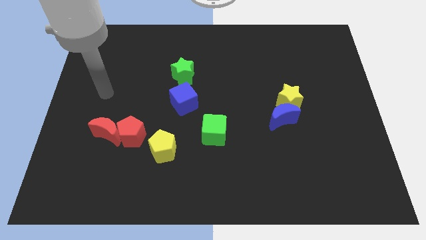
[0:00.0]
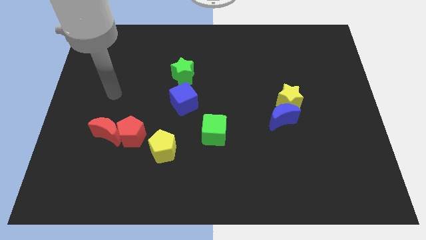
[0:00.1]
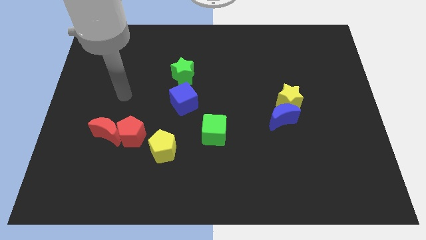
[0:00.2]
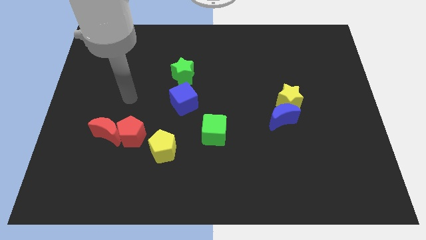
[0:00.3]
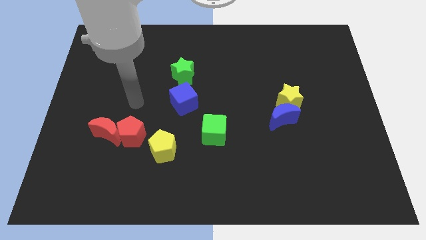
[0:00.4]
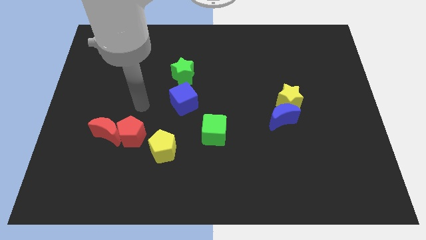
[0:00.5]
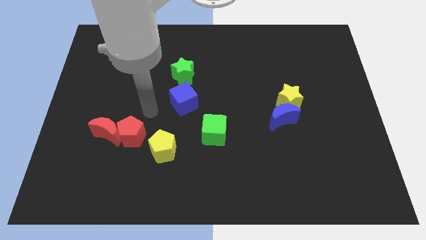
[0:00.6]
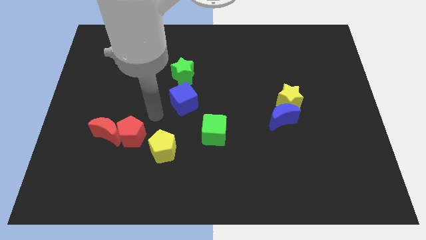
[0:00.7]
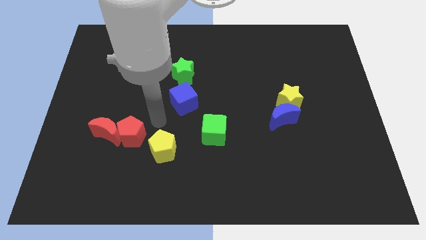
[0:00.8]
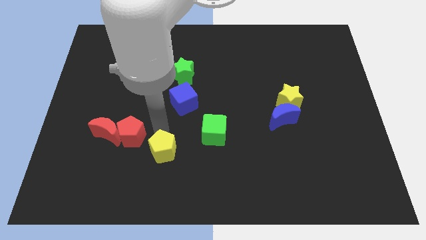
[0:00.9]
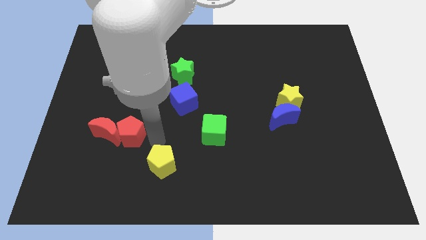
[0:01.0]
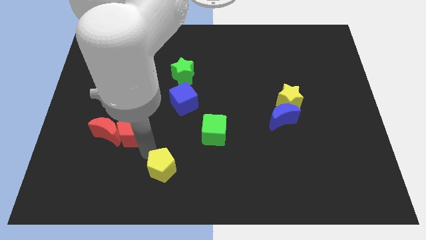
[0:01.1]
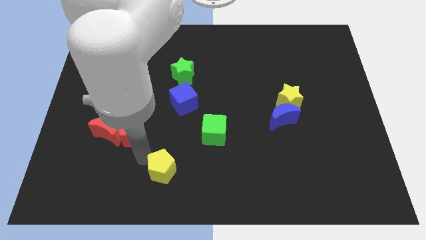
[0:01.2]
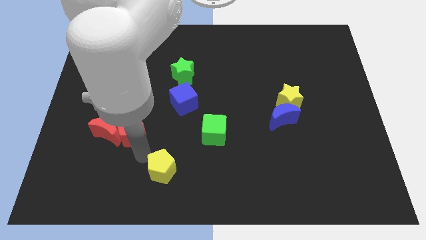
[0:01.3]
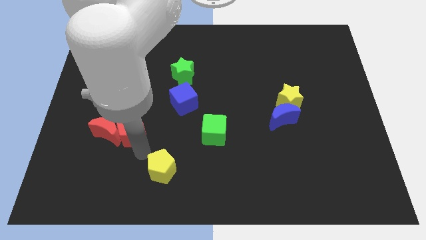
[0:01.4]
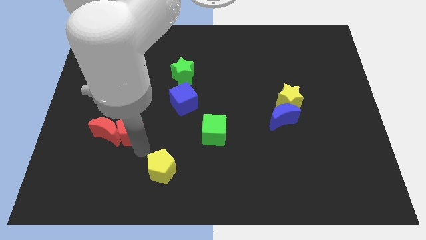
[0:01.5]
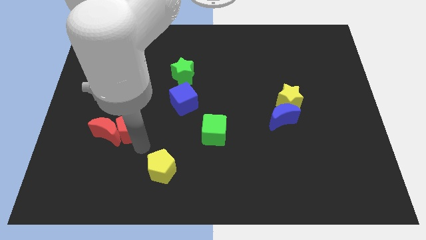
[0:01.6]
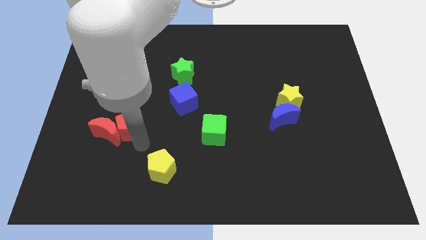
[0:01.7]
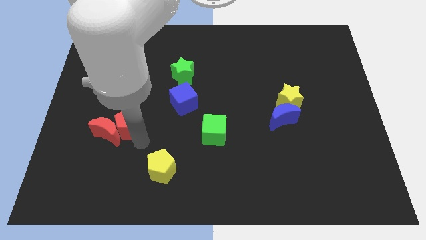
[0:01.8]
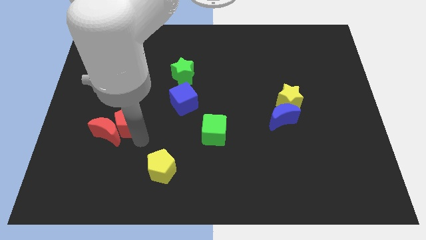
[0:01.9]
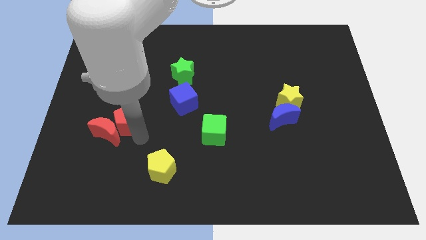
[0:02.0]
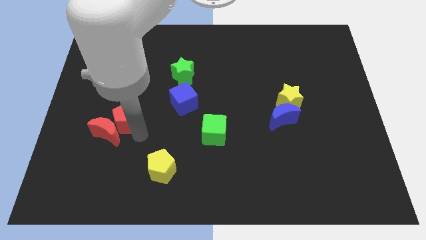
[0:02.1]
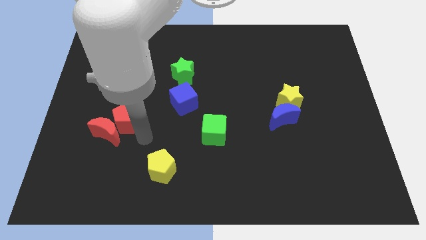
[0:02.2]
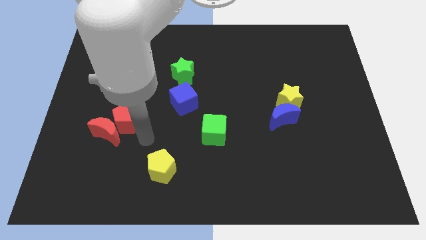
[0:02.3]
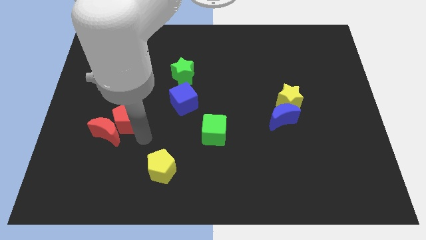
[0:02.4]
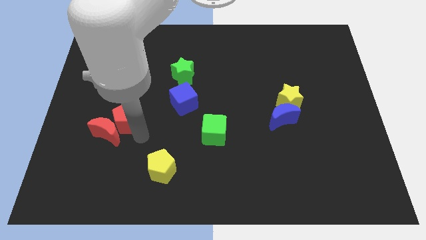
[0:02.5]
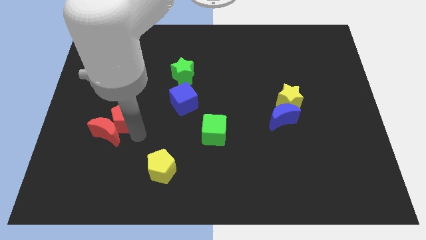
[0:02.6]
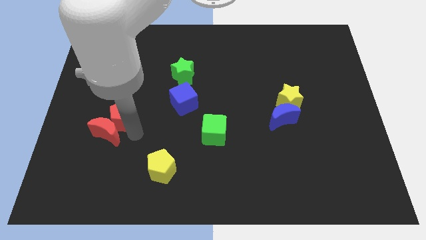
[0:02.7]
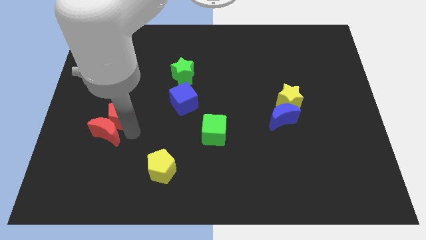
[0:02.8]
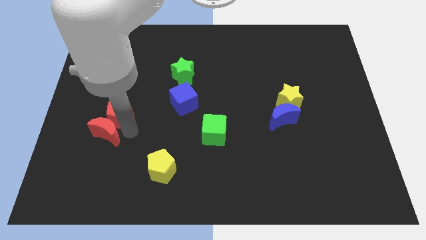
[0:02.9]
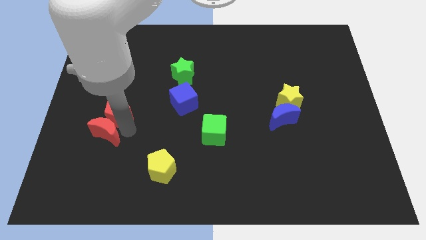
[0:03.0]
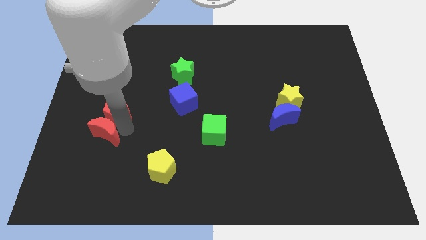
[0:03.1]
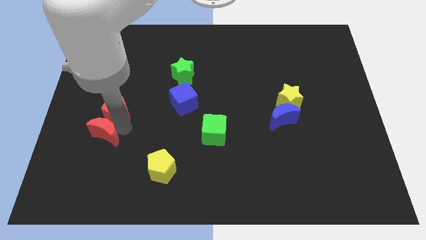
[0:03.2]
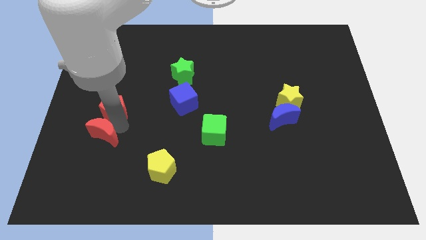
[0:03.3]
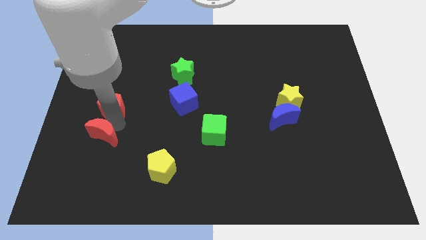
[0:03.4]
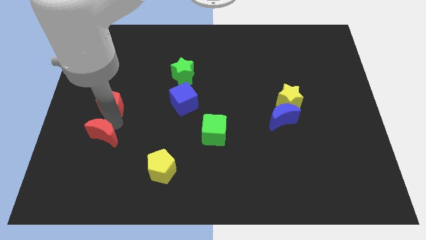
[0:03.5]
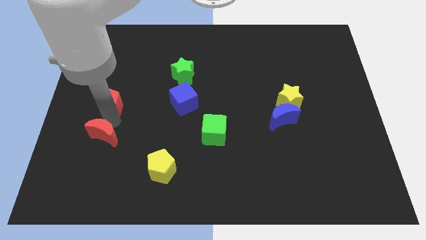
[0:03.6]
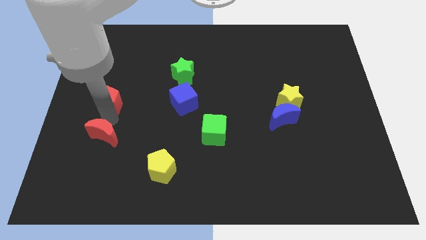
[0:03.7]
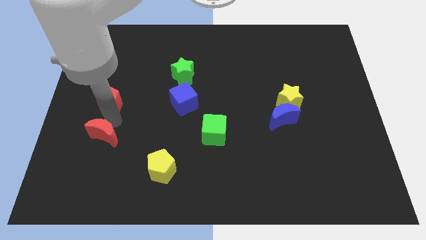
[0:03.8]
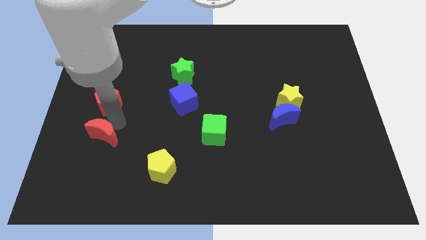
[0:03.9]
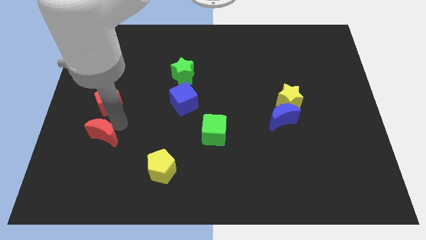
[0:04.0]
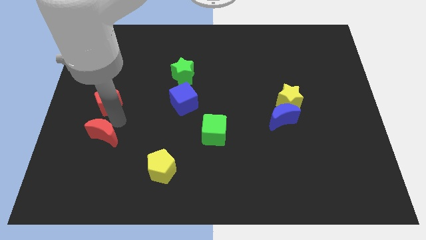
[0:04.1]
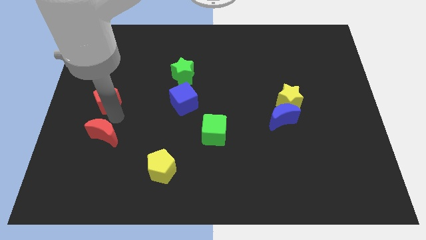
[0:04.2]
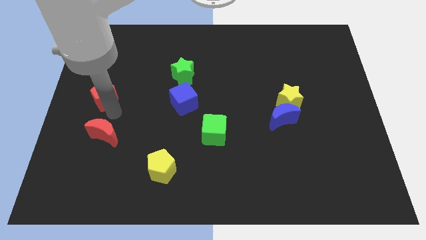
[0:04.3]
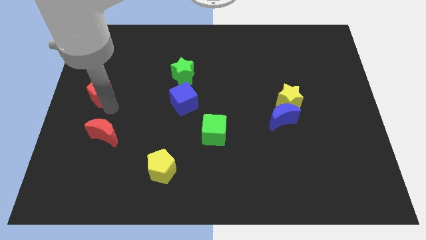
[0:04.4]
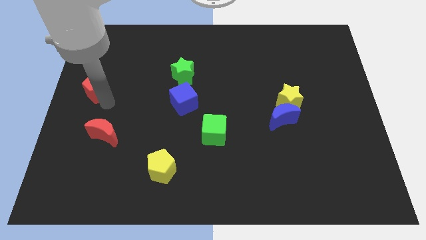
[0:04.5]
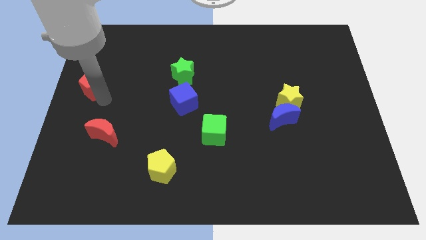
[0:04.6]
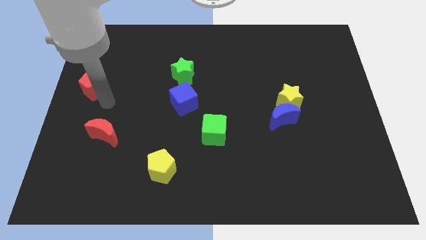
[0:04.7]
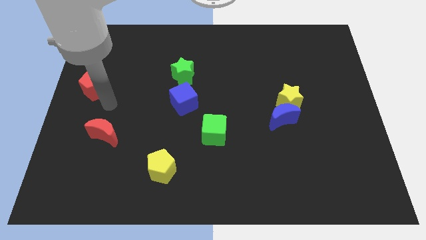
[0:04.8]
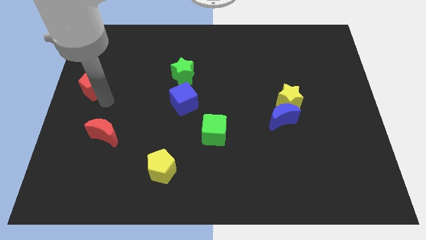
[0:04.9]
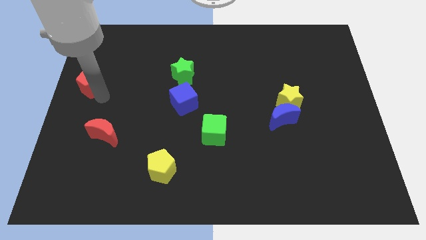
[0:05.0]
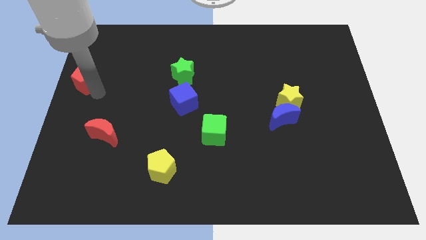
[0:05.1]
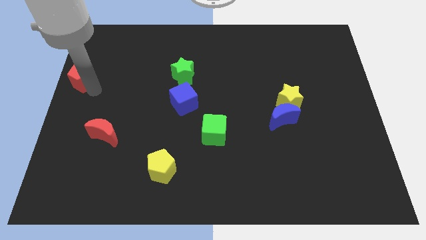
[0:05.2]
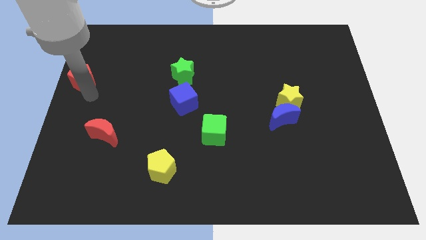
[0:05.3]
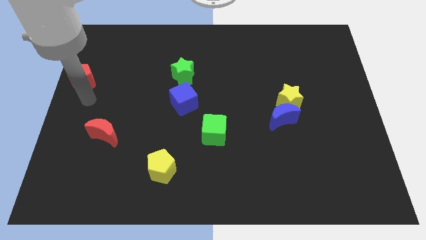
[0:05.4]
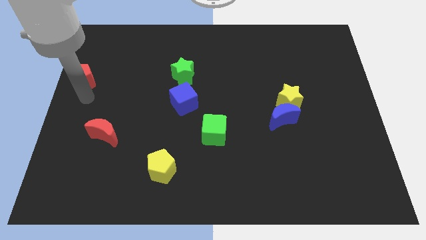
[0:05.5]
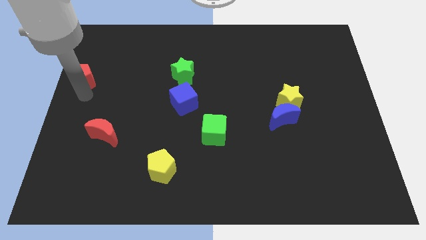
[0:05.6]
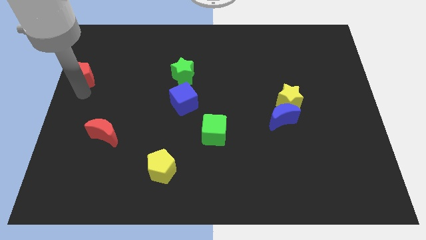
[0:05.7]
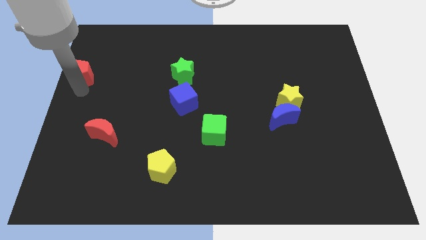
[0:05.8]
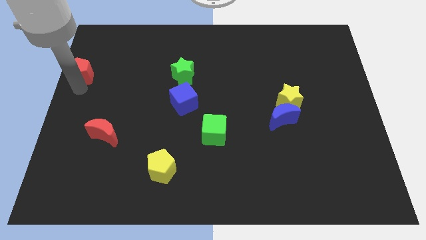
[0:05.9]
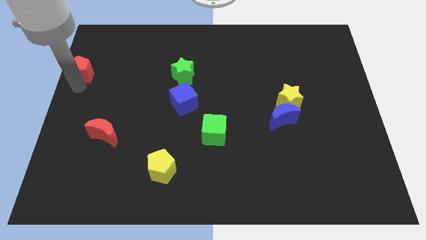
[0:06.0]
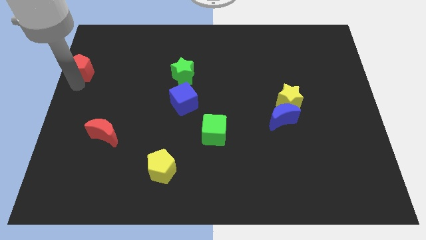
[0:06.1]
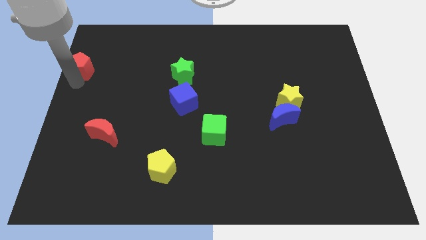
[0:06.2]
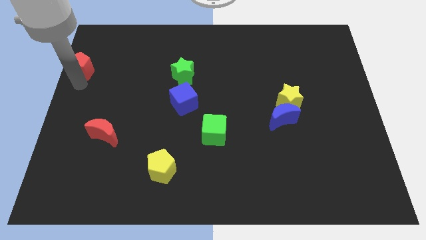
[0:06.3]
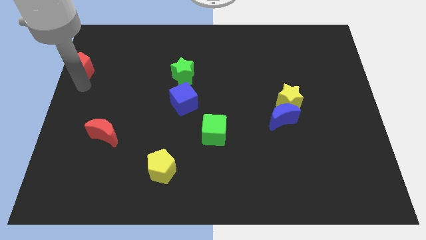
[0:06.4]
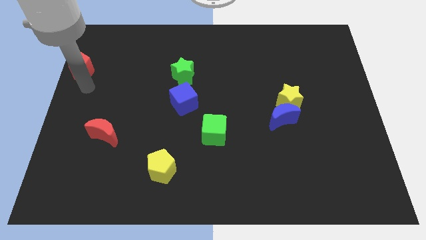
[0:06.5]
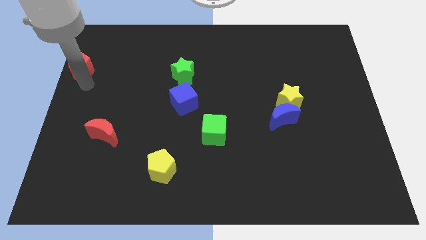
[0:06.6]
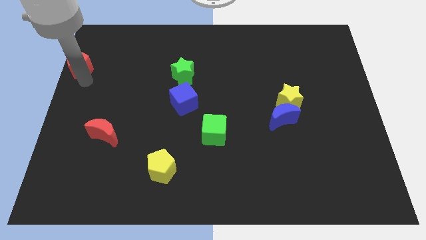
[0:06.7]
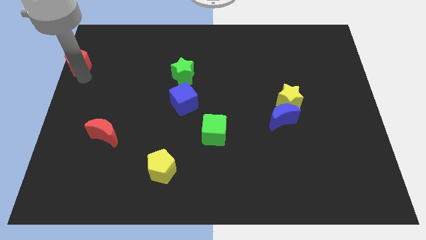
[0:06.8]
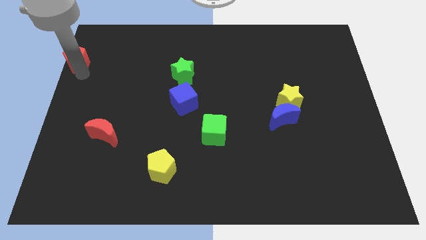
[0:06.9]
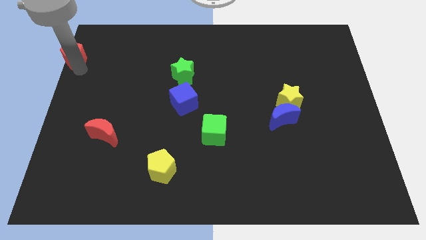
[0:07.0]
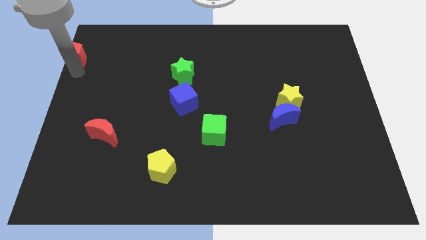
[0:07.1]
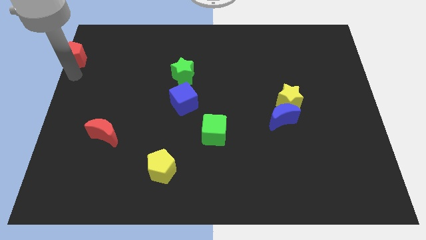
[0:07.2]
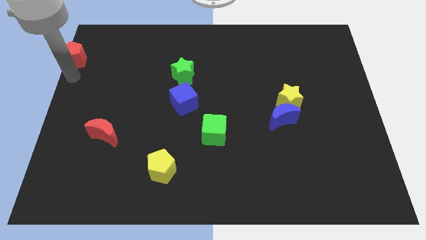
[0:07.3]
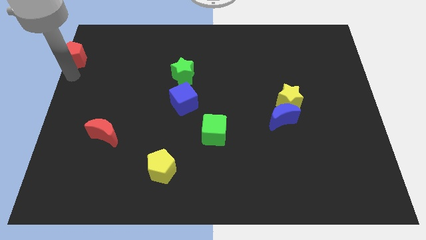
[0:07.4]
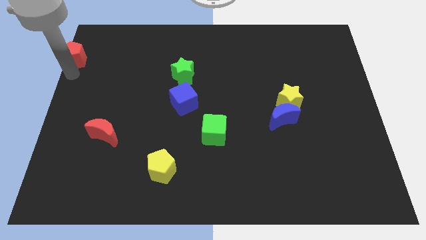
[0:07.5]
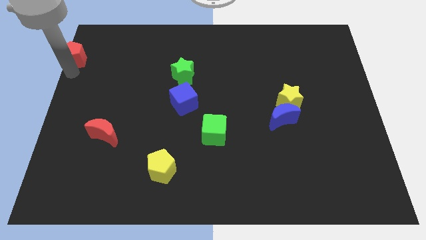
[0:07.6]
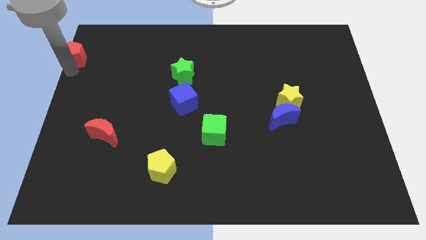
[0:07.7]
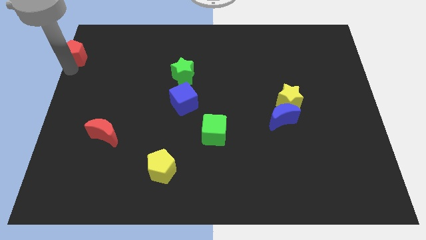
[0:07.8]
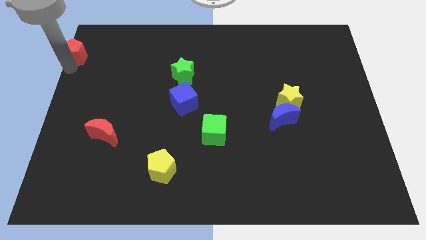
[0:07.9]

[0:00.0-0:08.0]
put the red pentagon to the top left corner
